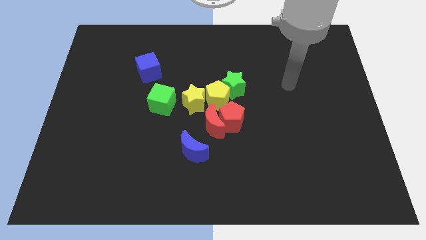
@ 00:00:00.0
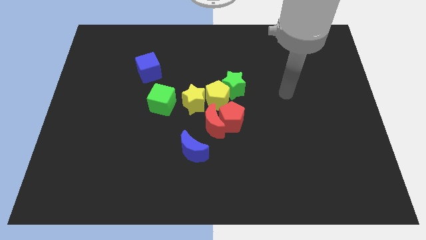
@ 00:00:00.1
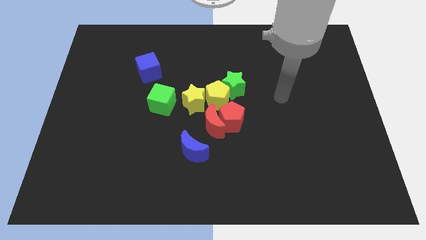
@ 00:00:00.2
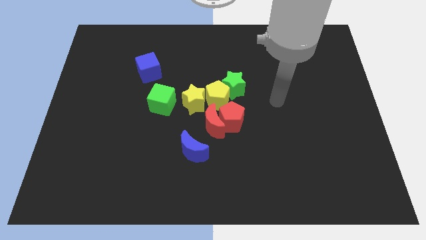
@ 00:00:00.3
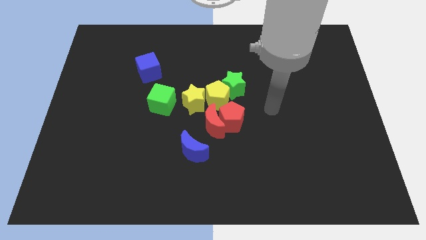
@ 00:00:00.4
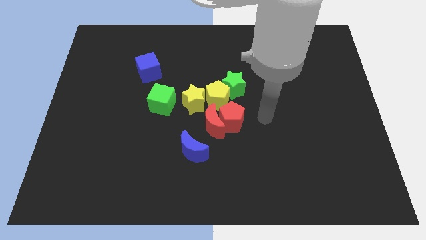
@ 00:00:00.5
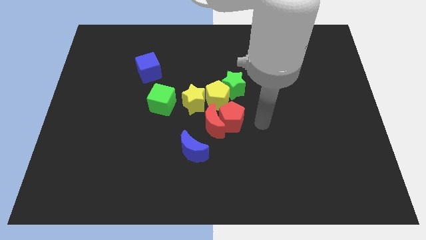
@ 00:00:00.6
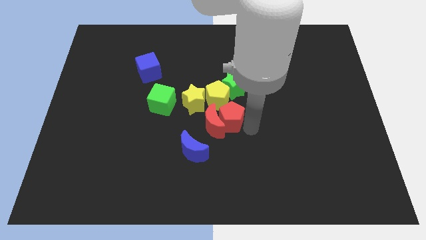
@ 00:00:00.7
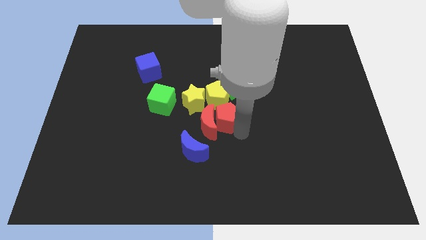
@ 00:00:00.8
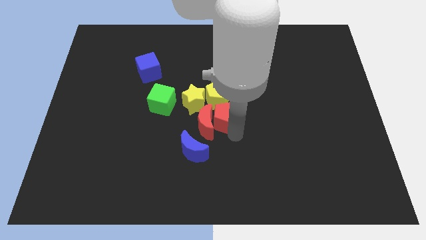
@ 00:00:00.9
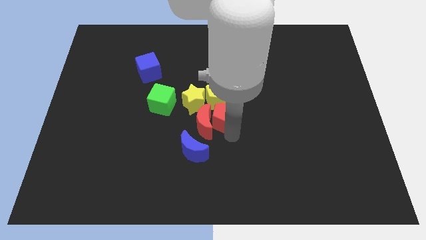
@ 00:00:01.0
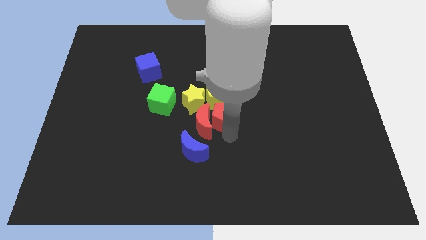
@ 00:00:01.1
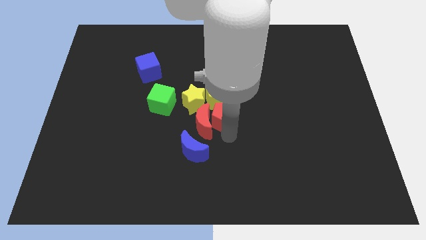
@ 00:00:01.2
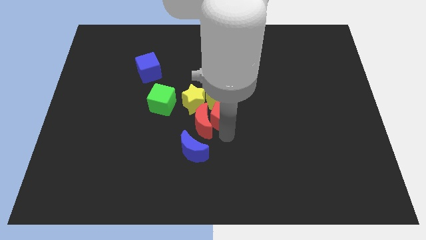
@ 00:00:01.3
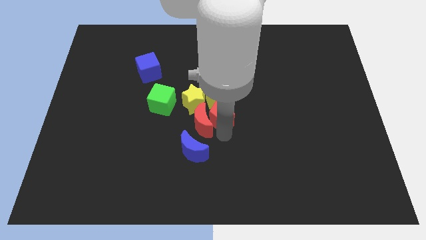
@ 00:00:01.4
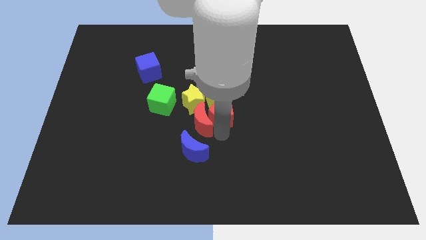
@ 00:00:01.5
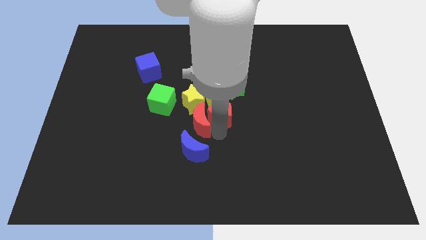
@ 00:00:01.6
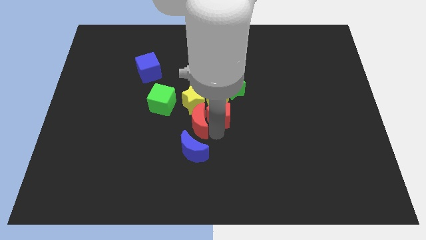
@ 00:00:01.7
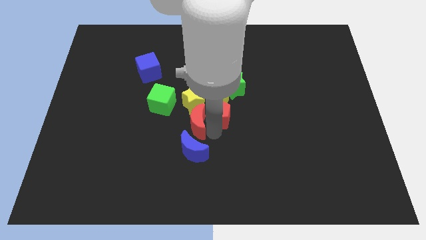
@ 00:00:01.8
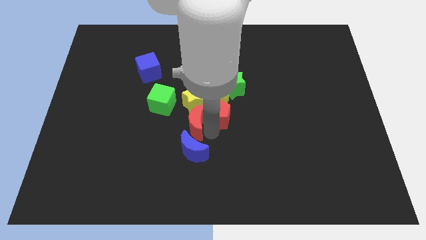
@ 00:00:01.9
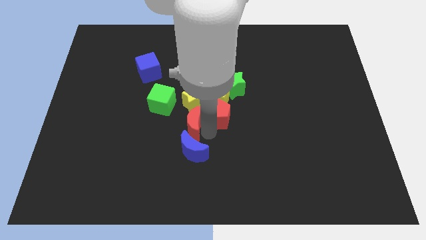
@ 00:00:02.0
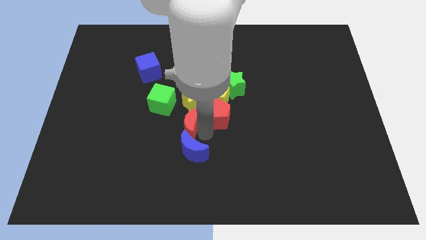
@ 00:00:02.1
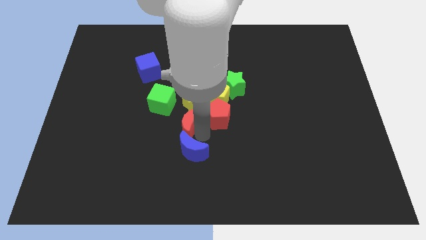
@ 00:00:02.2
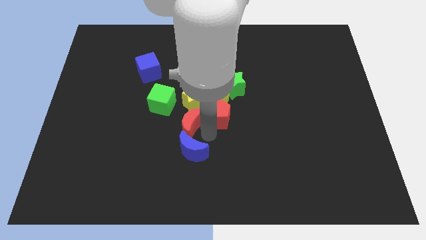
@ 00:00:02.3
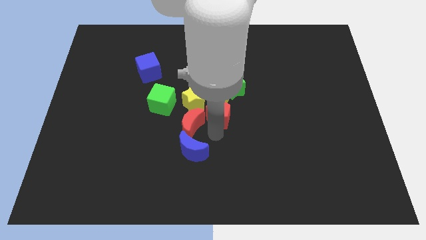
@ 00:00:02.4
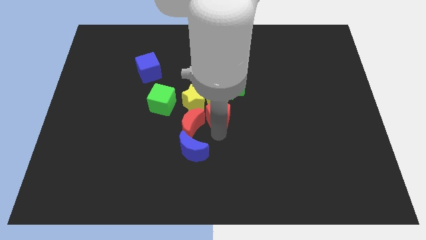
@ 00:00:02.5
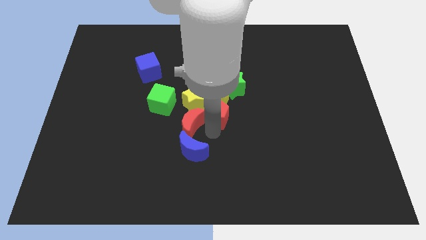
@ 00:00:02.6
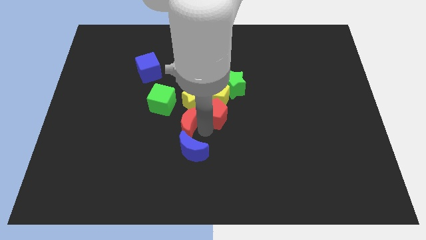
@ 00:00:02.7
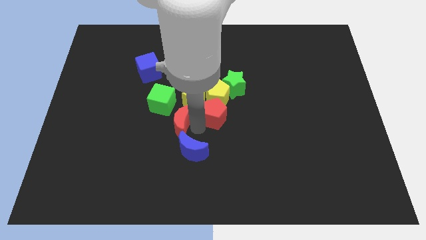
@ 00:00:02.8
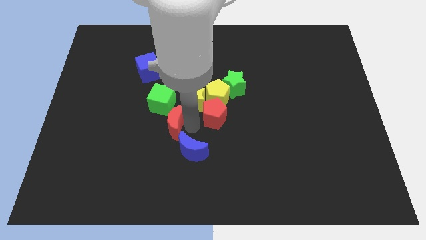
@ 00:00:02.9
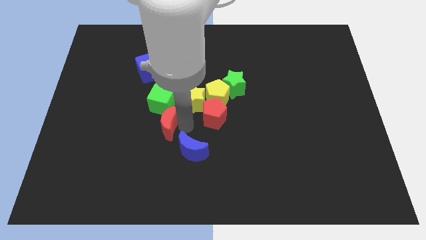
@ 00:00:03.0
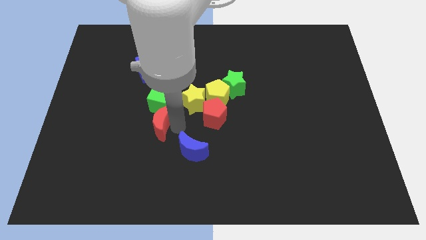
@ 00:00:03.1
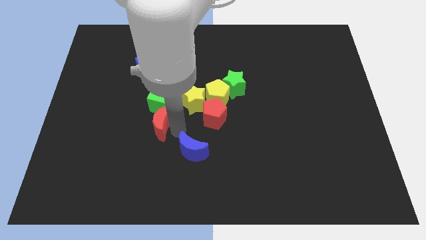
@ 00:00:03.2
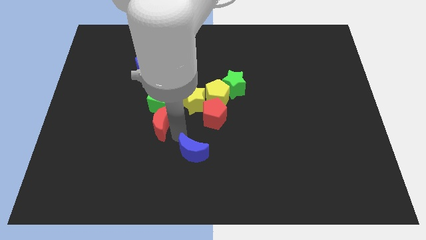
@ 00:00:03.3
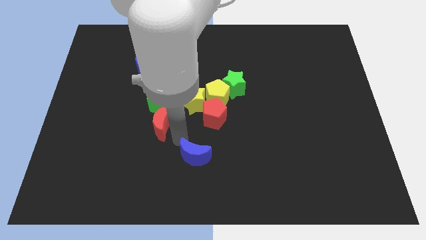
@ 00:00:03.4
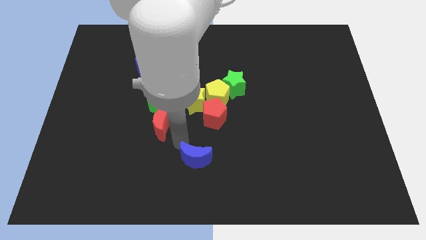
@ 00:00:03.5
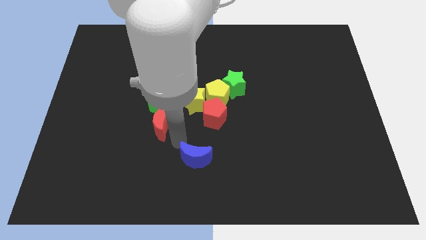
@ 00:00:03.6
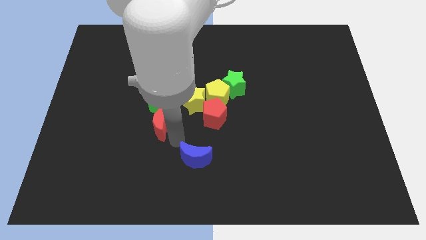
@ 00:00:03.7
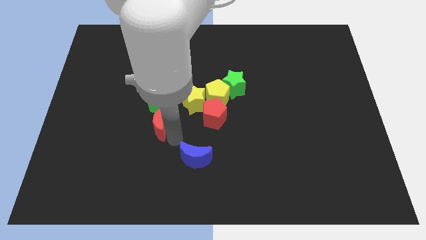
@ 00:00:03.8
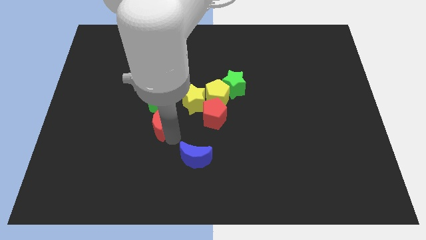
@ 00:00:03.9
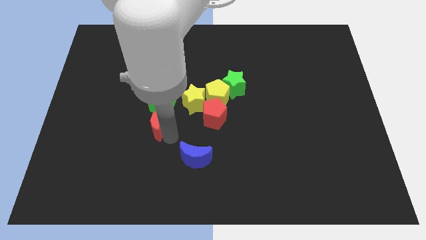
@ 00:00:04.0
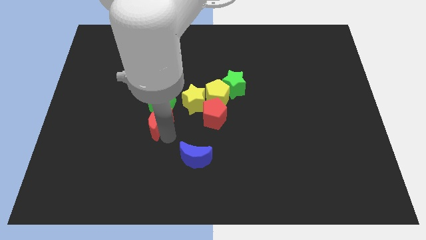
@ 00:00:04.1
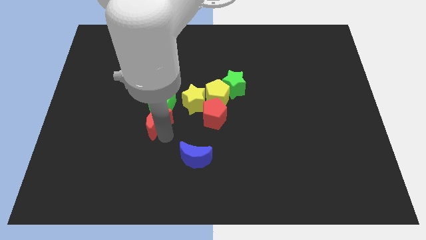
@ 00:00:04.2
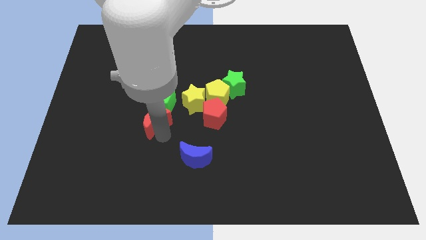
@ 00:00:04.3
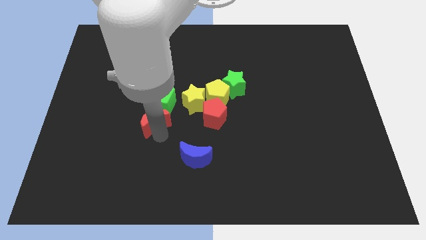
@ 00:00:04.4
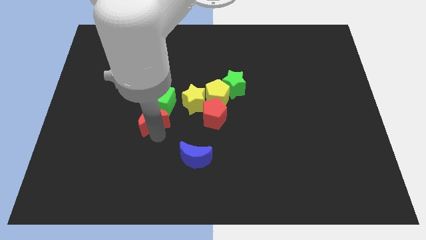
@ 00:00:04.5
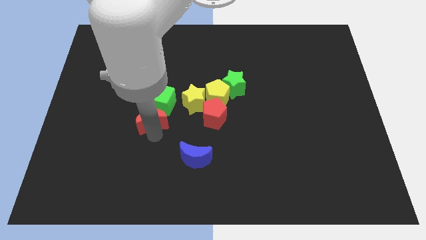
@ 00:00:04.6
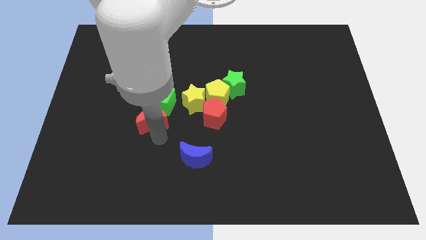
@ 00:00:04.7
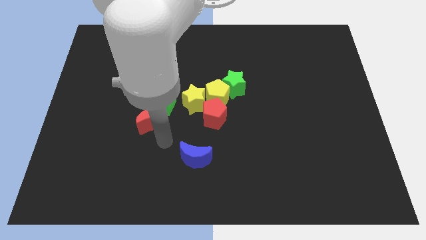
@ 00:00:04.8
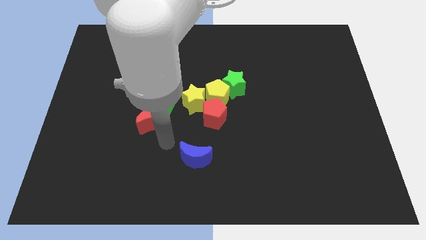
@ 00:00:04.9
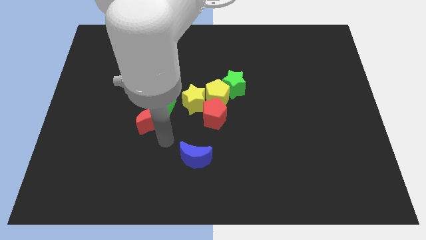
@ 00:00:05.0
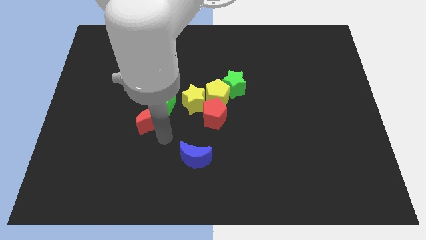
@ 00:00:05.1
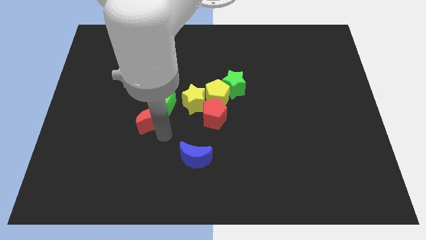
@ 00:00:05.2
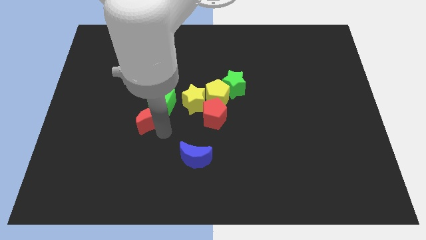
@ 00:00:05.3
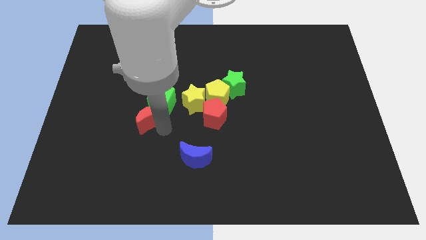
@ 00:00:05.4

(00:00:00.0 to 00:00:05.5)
slightly slide the red moon up and to the left diagonally

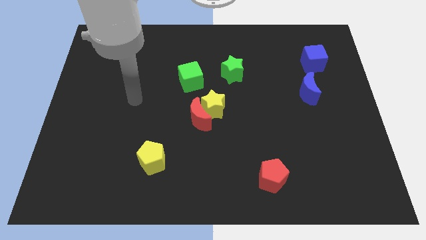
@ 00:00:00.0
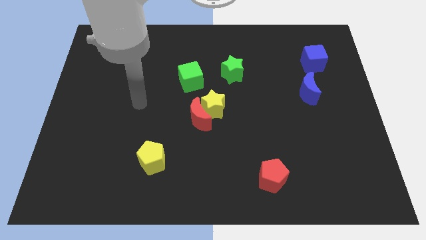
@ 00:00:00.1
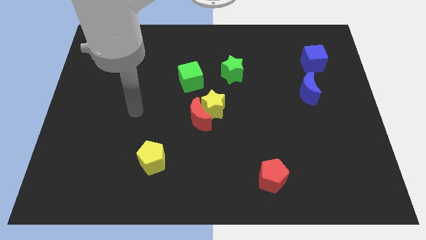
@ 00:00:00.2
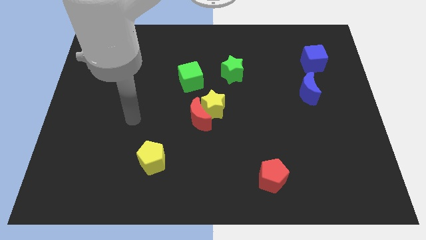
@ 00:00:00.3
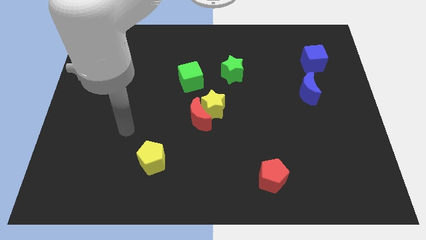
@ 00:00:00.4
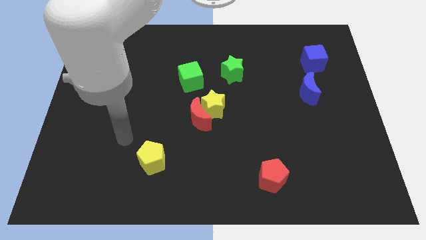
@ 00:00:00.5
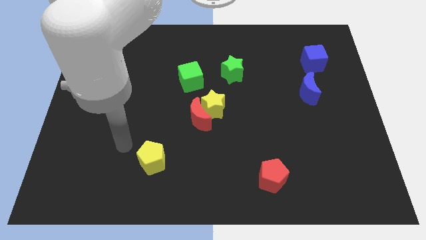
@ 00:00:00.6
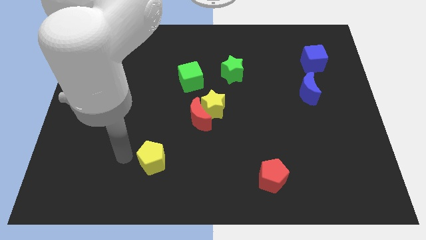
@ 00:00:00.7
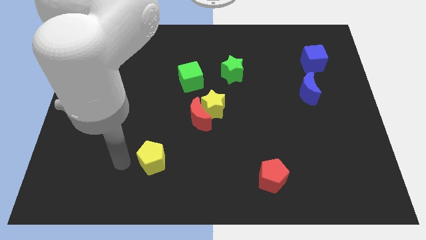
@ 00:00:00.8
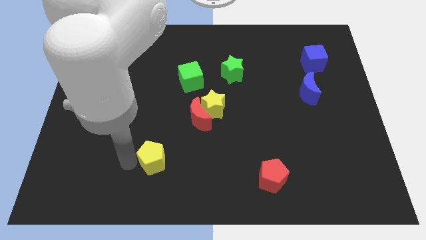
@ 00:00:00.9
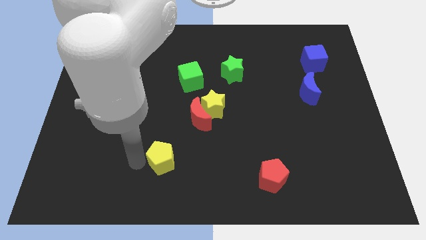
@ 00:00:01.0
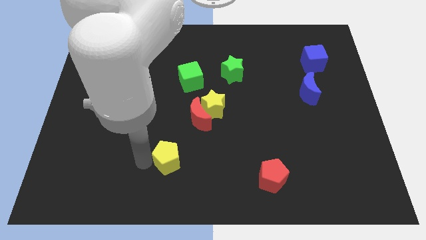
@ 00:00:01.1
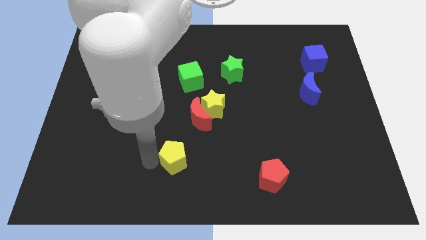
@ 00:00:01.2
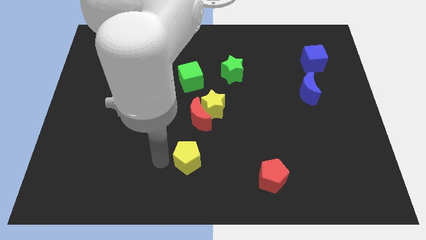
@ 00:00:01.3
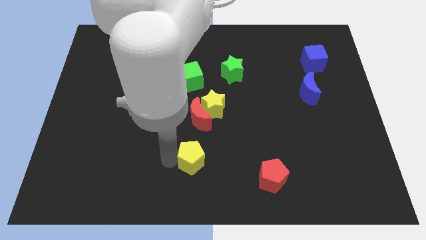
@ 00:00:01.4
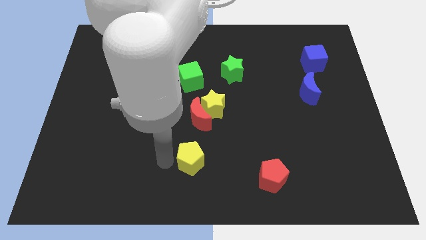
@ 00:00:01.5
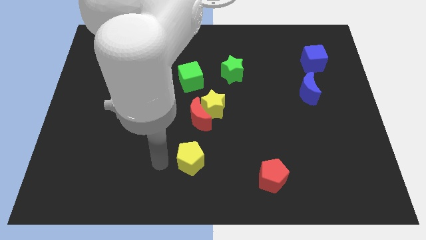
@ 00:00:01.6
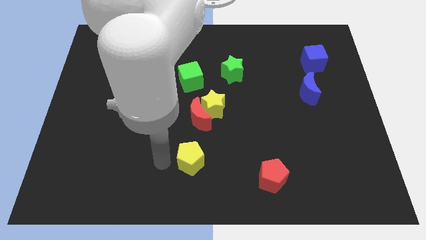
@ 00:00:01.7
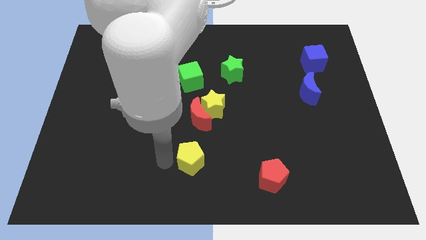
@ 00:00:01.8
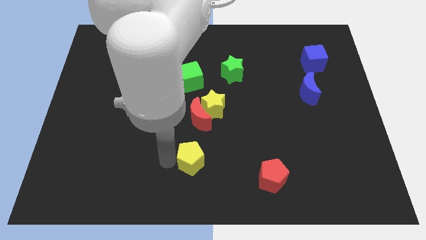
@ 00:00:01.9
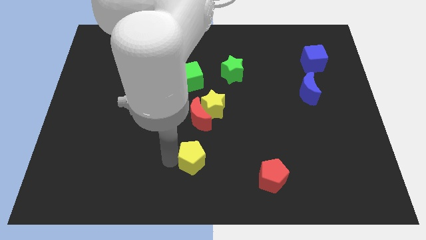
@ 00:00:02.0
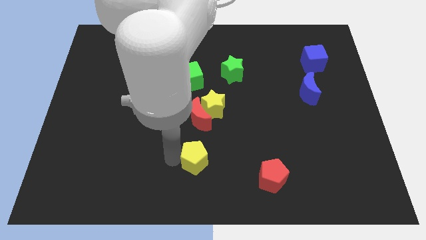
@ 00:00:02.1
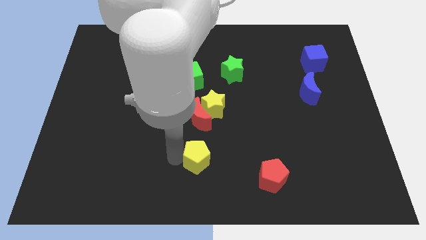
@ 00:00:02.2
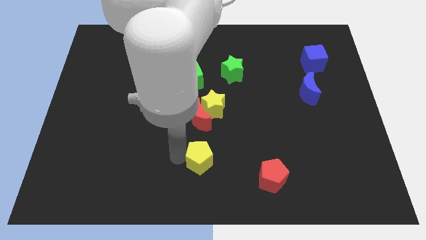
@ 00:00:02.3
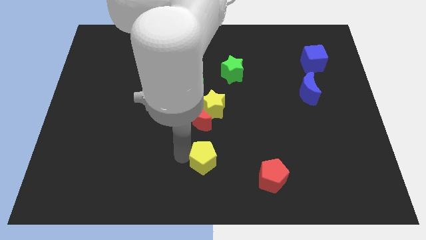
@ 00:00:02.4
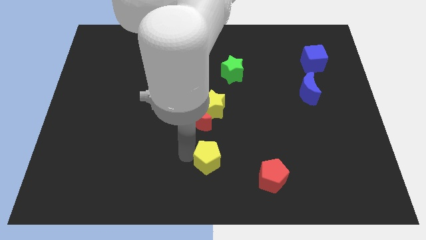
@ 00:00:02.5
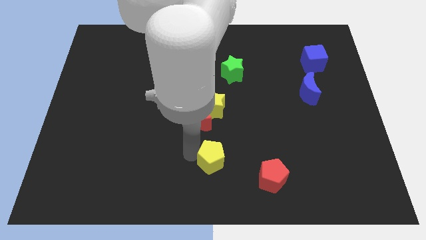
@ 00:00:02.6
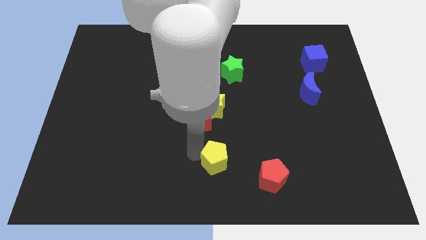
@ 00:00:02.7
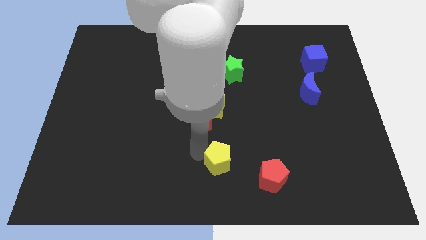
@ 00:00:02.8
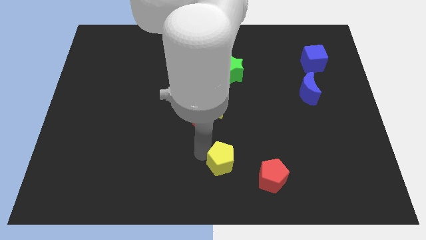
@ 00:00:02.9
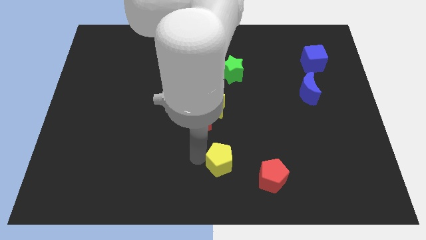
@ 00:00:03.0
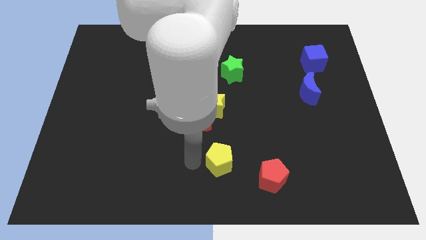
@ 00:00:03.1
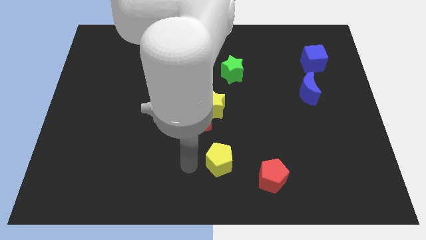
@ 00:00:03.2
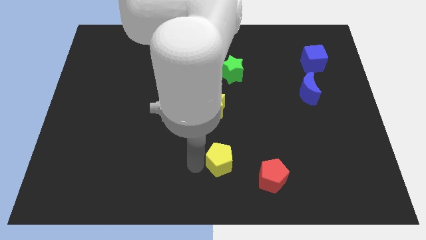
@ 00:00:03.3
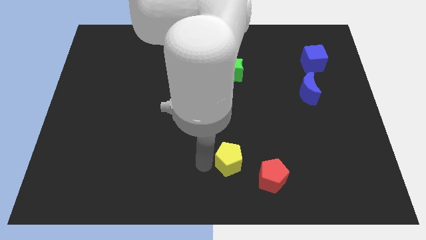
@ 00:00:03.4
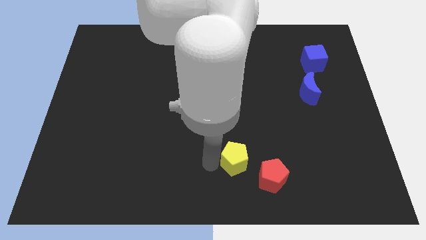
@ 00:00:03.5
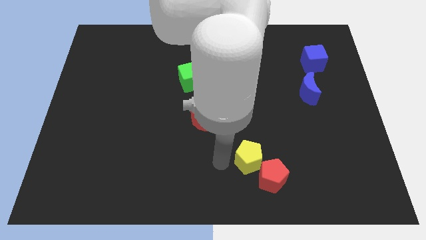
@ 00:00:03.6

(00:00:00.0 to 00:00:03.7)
move the yellow pentagon right
